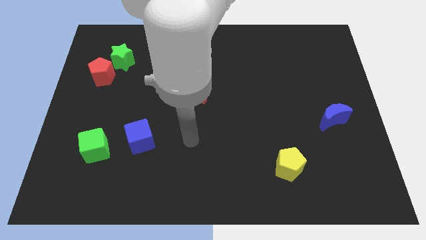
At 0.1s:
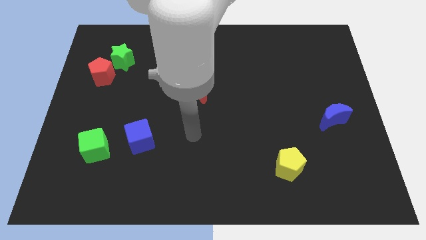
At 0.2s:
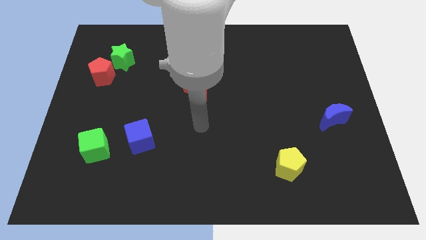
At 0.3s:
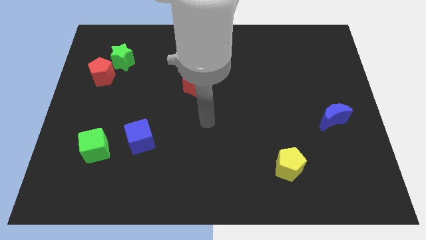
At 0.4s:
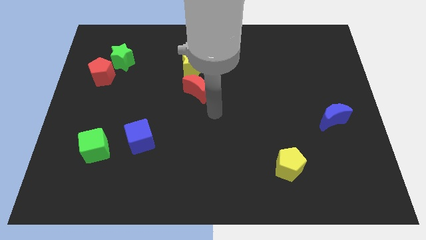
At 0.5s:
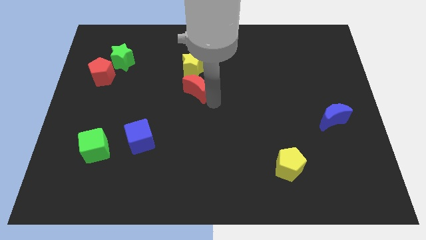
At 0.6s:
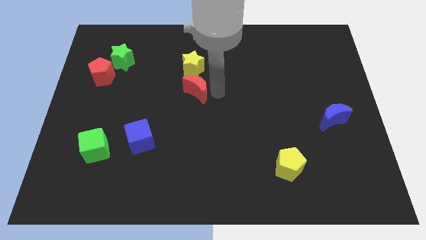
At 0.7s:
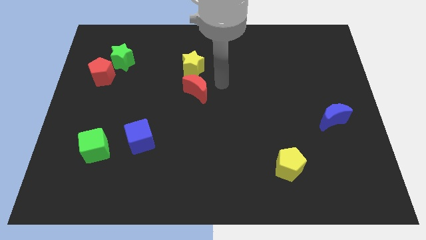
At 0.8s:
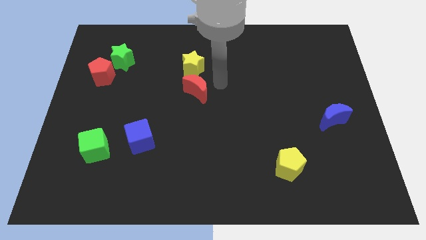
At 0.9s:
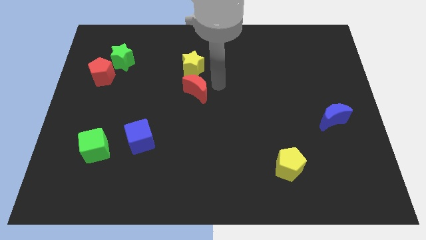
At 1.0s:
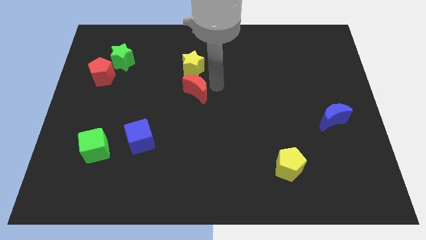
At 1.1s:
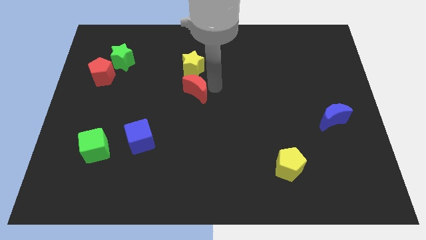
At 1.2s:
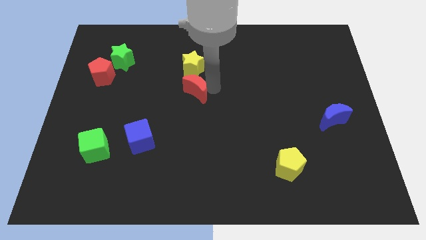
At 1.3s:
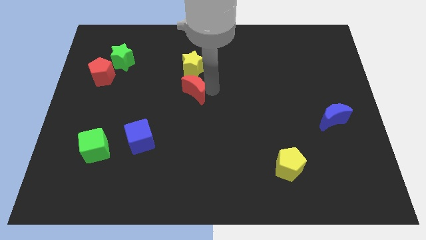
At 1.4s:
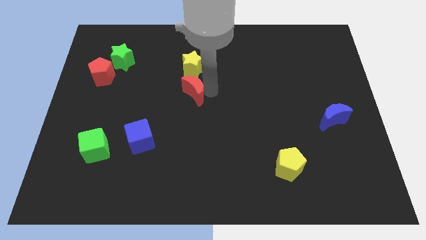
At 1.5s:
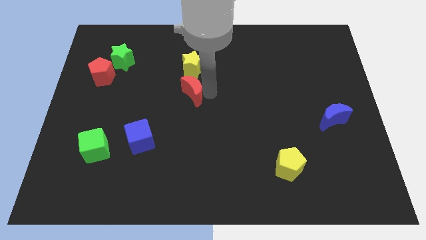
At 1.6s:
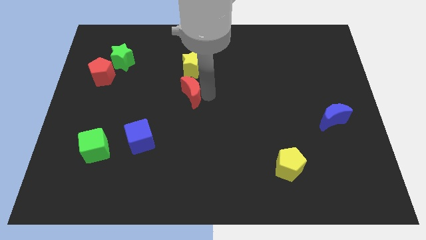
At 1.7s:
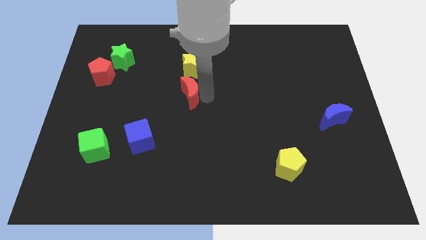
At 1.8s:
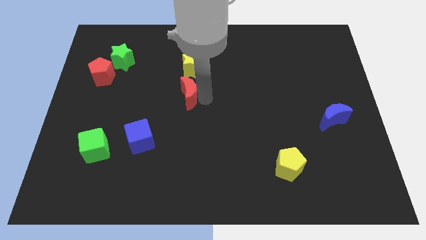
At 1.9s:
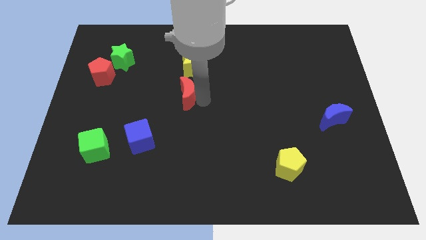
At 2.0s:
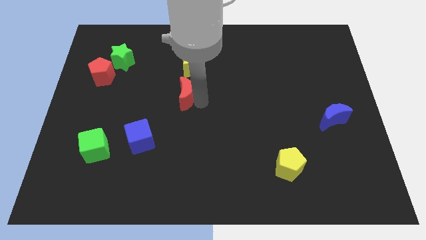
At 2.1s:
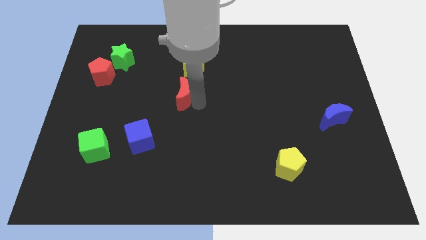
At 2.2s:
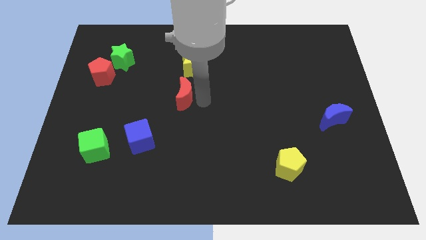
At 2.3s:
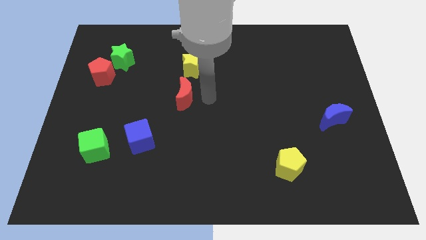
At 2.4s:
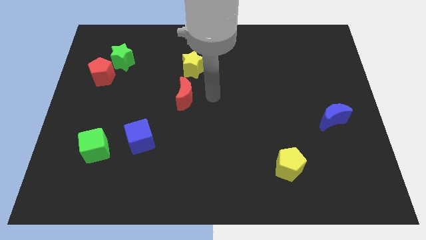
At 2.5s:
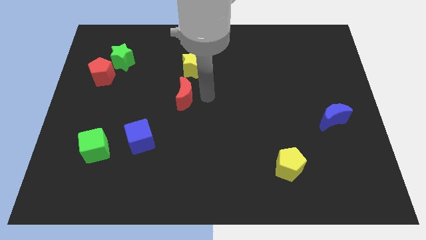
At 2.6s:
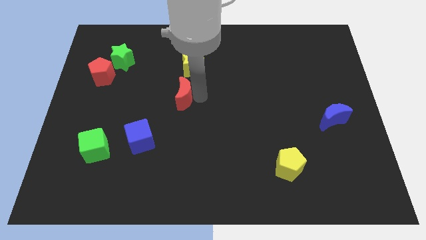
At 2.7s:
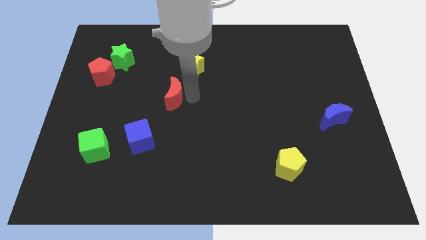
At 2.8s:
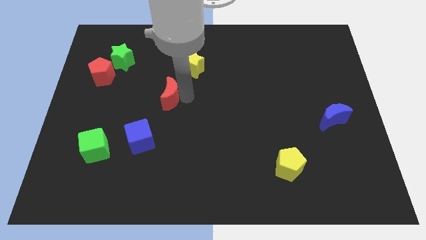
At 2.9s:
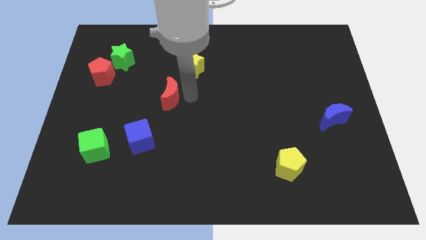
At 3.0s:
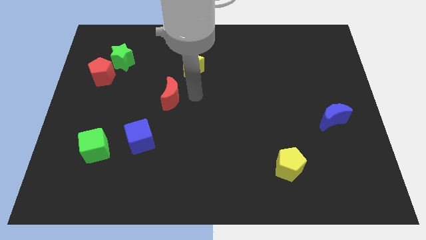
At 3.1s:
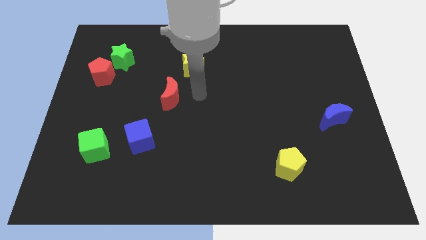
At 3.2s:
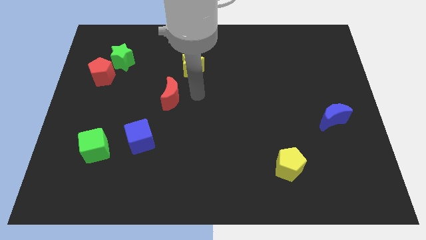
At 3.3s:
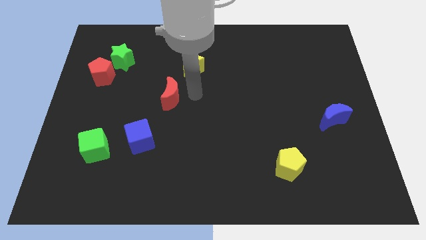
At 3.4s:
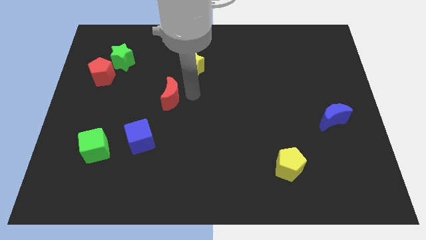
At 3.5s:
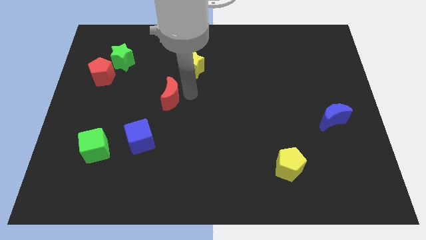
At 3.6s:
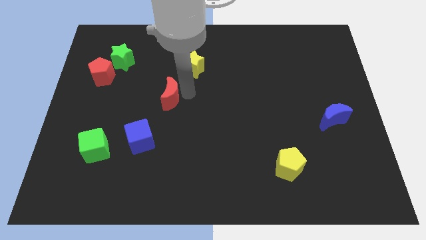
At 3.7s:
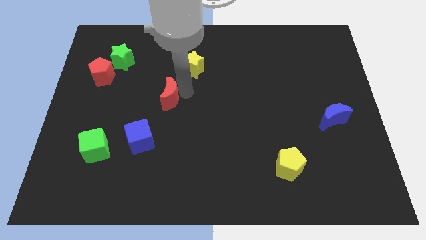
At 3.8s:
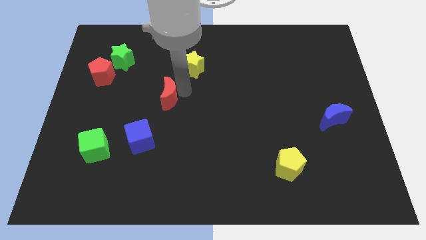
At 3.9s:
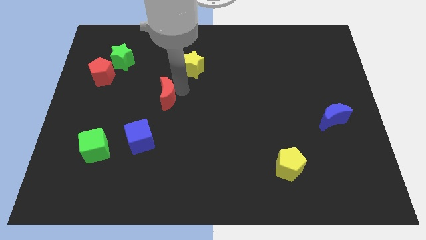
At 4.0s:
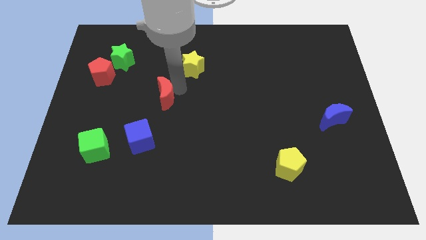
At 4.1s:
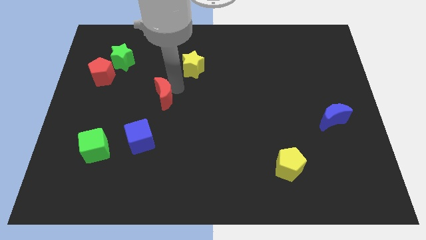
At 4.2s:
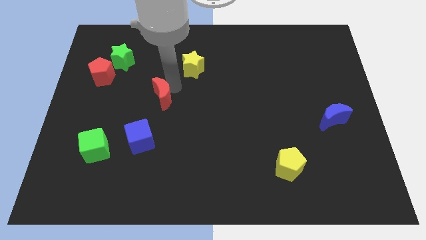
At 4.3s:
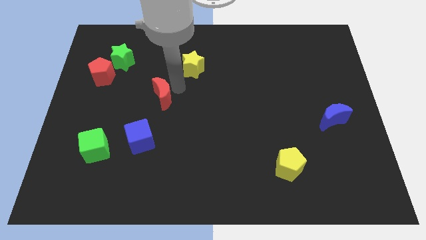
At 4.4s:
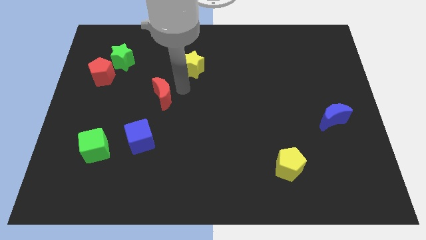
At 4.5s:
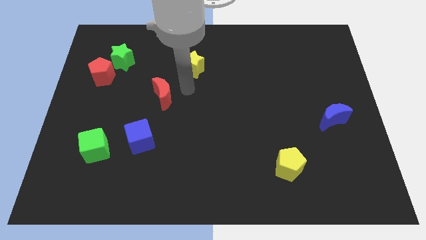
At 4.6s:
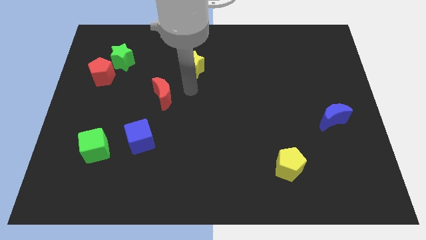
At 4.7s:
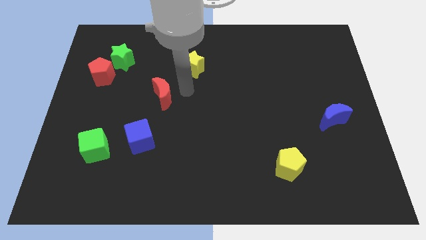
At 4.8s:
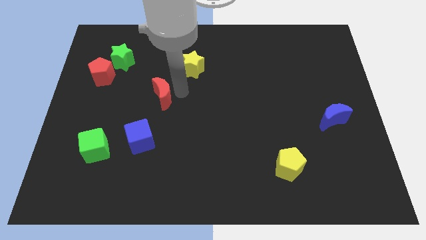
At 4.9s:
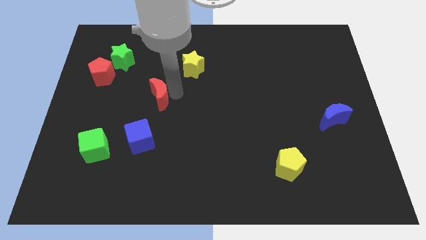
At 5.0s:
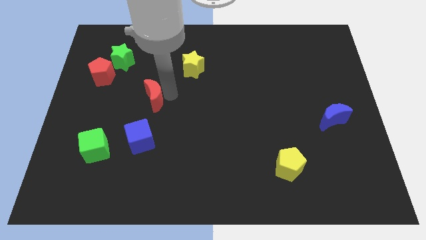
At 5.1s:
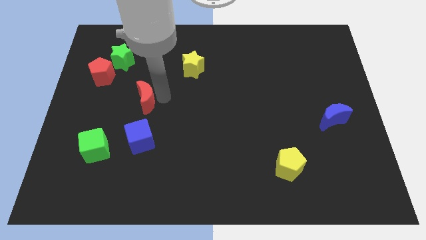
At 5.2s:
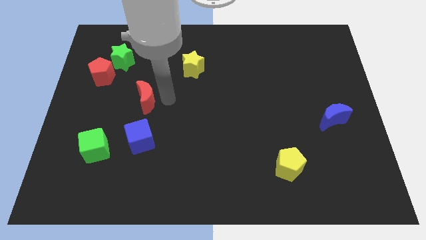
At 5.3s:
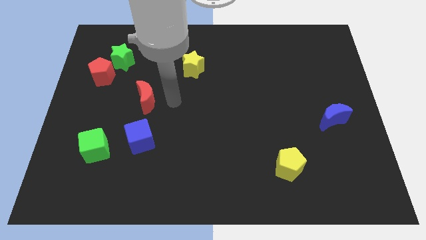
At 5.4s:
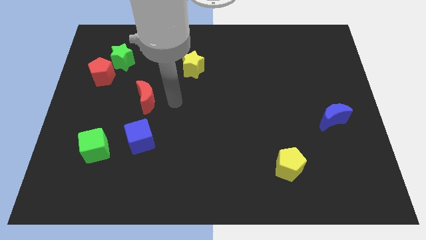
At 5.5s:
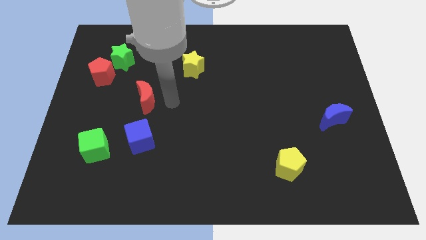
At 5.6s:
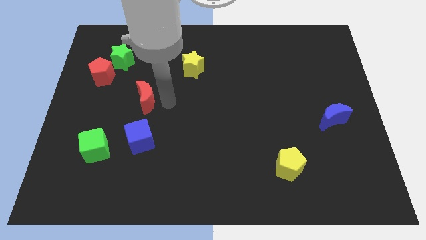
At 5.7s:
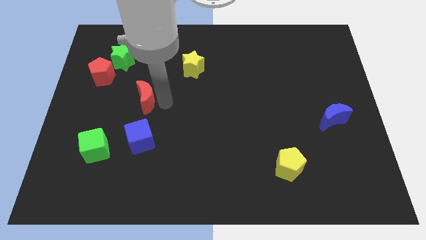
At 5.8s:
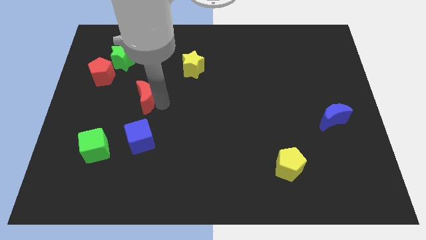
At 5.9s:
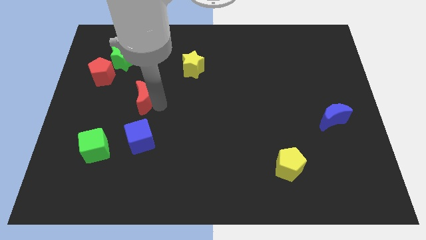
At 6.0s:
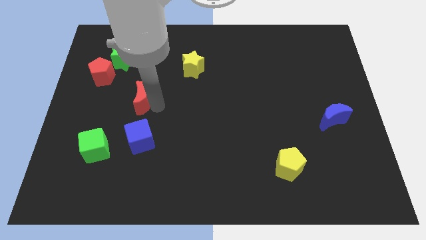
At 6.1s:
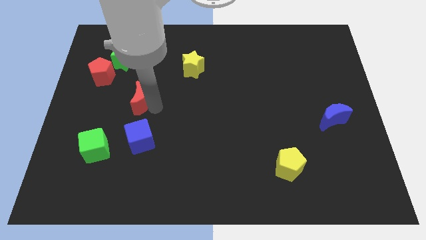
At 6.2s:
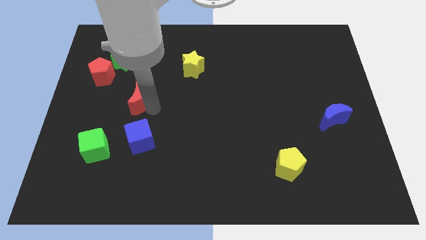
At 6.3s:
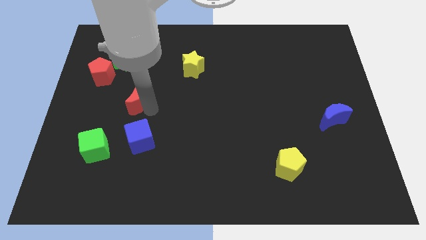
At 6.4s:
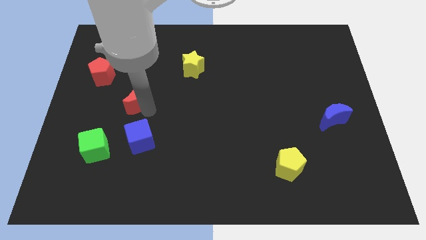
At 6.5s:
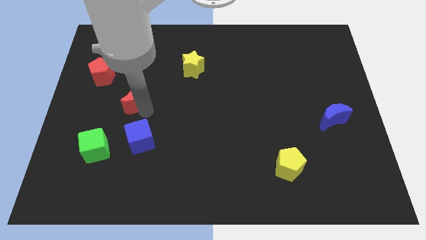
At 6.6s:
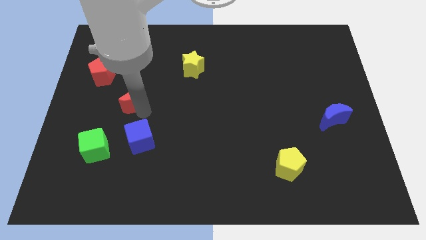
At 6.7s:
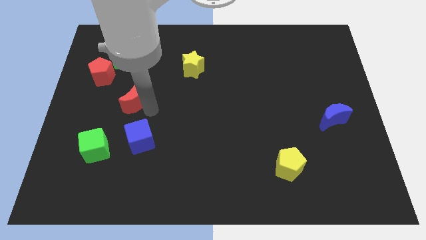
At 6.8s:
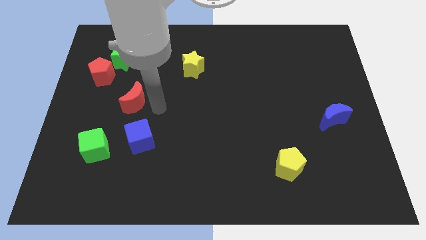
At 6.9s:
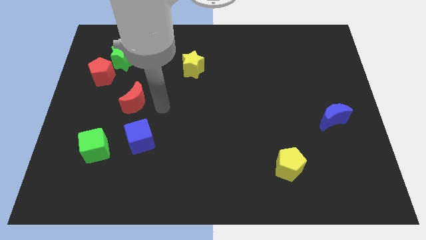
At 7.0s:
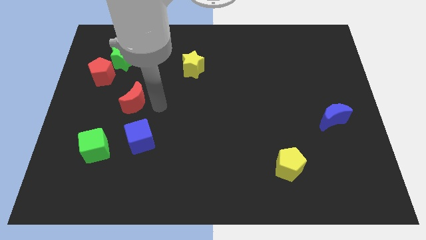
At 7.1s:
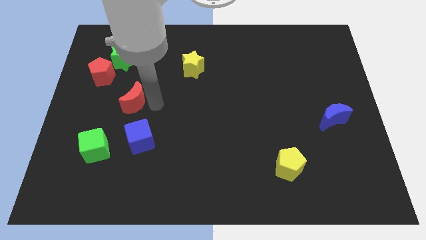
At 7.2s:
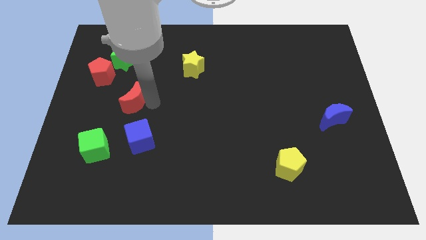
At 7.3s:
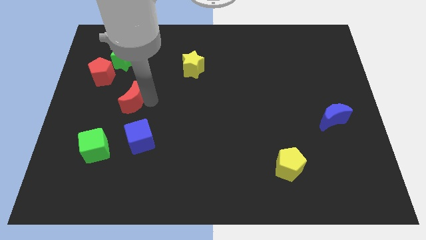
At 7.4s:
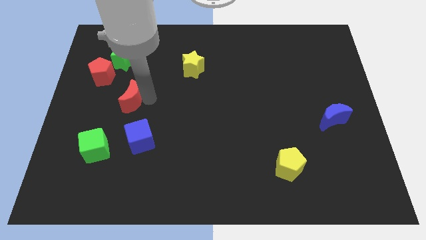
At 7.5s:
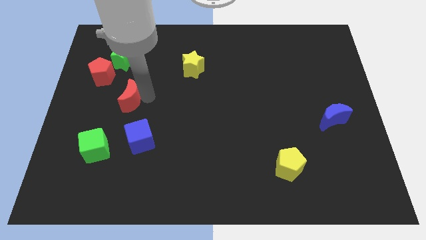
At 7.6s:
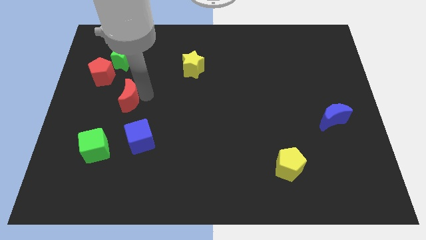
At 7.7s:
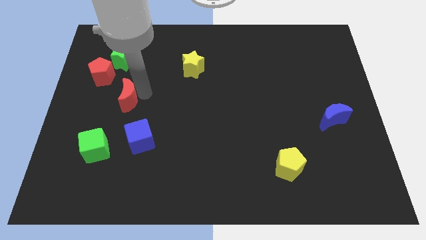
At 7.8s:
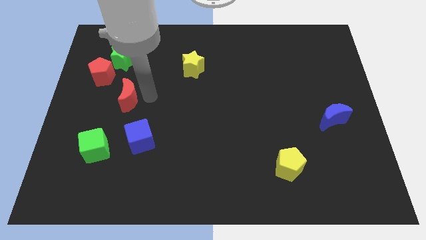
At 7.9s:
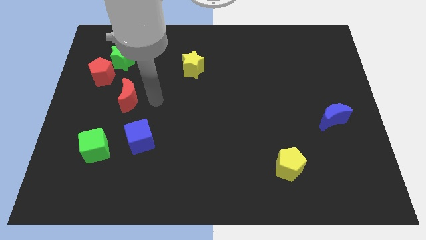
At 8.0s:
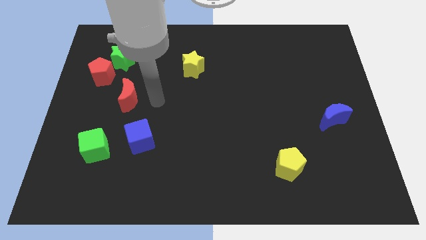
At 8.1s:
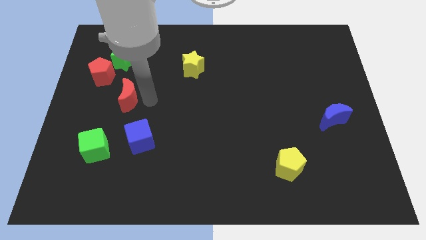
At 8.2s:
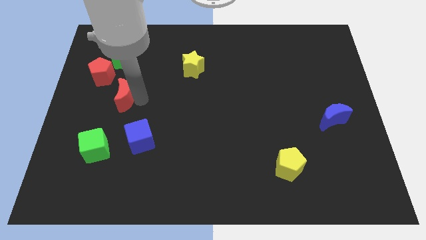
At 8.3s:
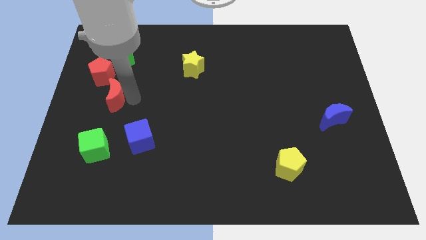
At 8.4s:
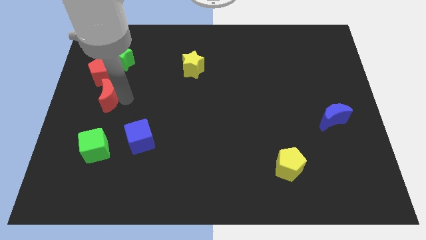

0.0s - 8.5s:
put the red moon to the left side of the board
